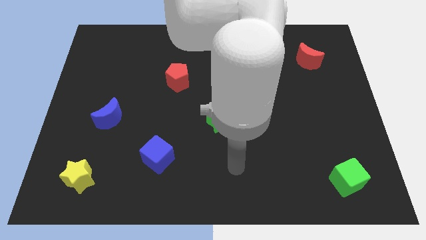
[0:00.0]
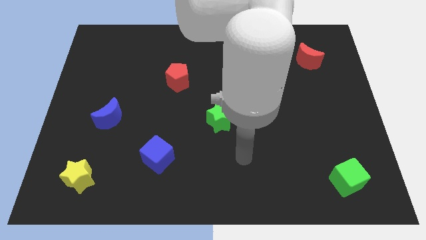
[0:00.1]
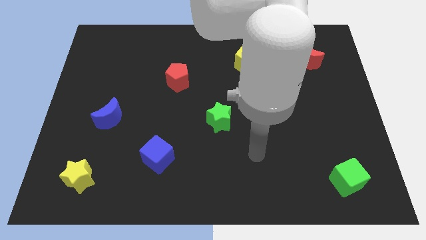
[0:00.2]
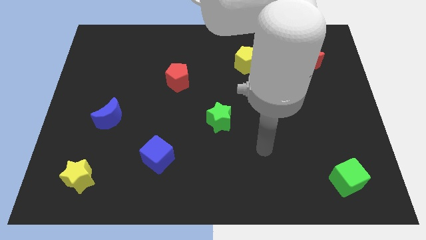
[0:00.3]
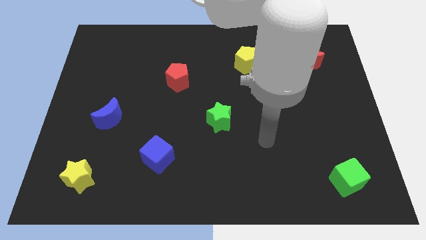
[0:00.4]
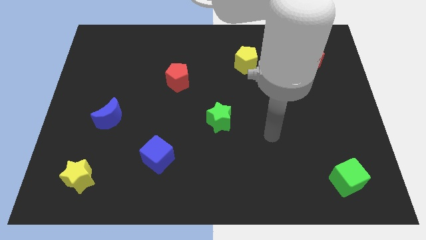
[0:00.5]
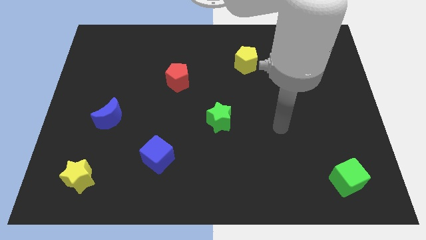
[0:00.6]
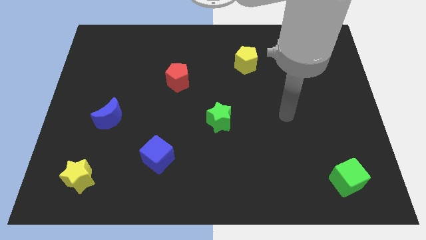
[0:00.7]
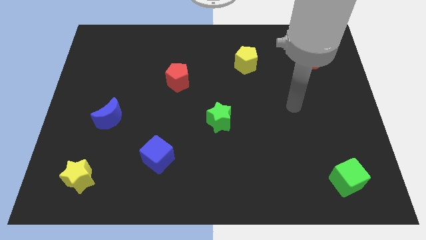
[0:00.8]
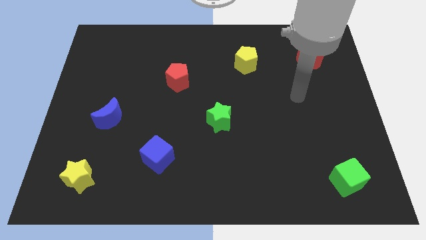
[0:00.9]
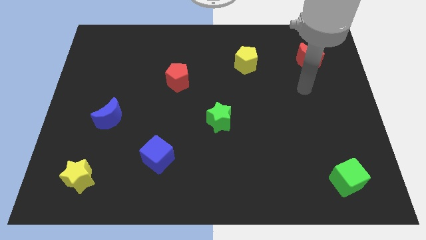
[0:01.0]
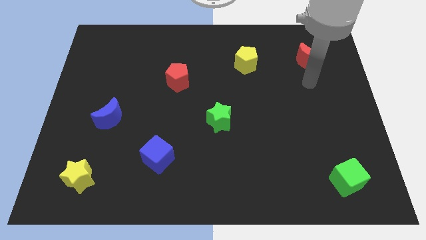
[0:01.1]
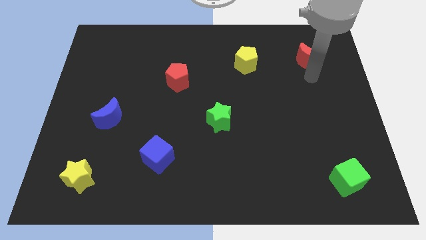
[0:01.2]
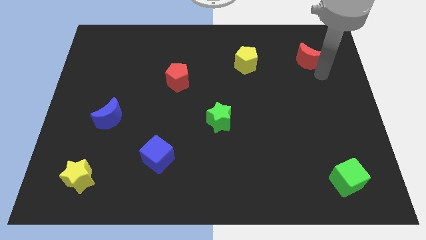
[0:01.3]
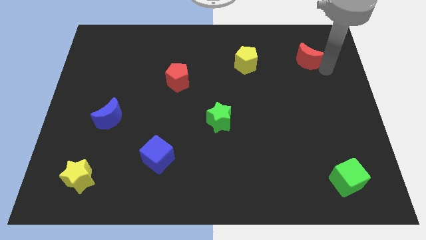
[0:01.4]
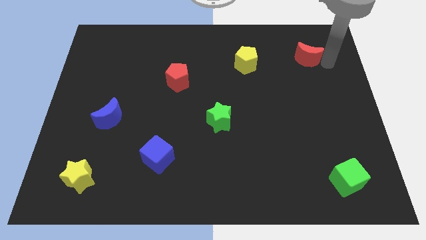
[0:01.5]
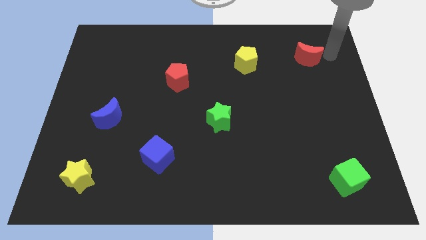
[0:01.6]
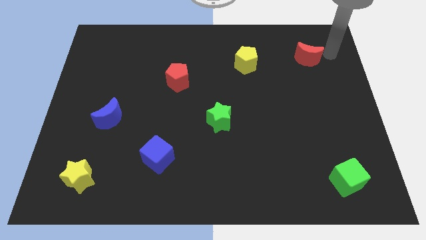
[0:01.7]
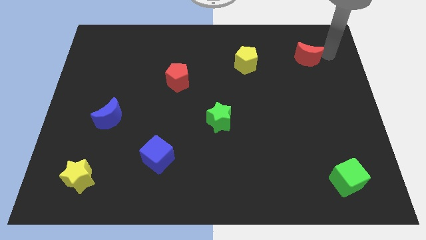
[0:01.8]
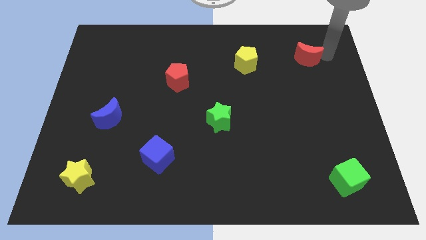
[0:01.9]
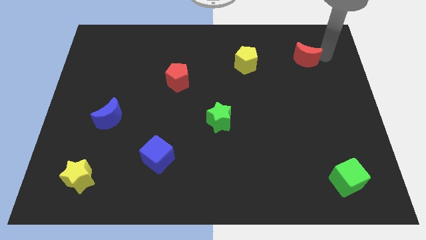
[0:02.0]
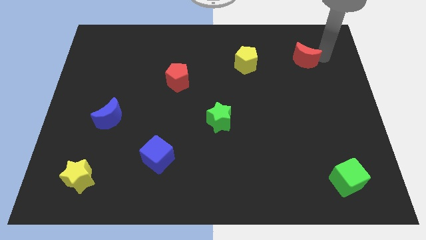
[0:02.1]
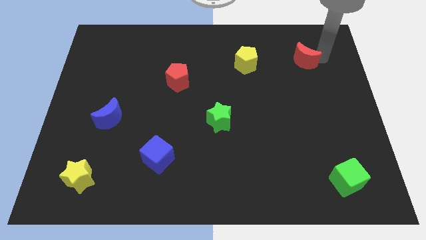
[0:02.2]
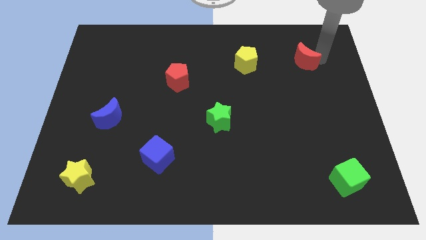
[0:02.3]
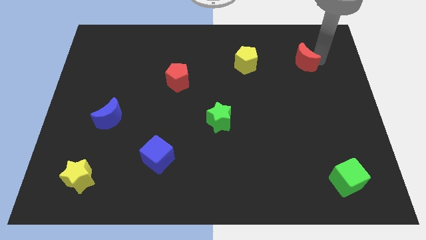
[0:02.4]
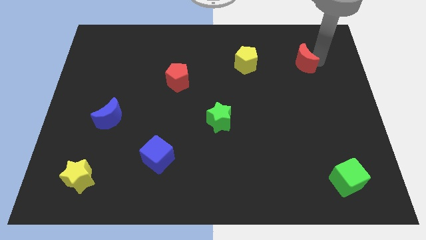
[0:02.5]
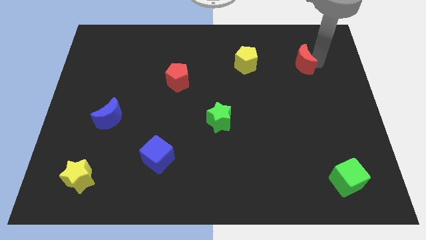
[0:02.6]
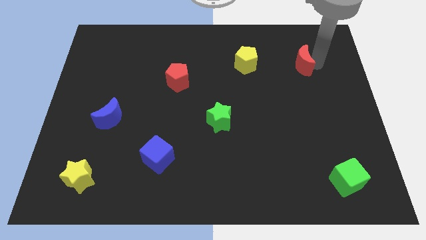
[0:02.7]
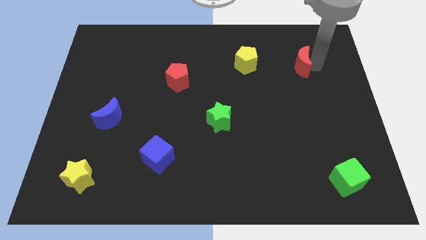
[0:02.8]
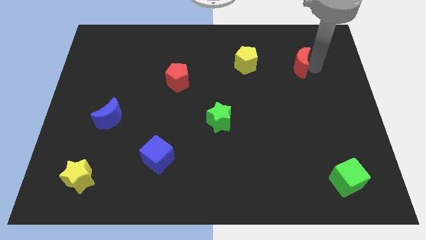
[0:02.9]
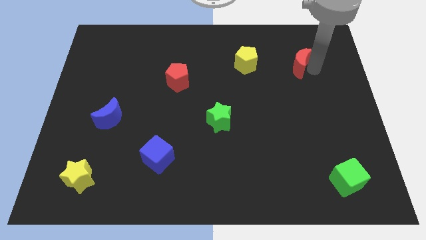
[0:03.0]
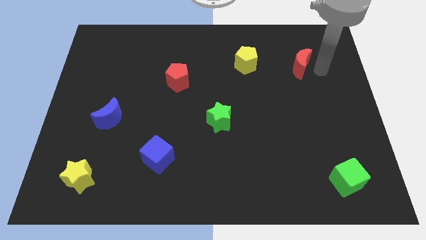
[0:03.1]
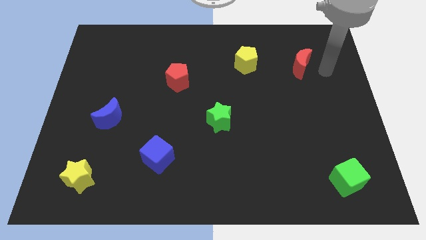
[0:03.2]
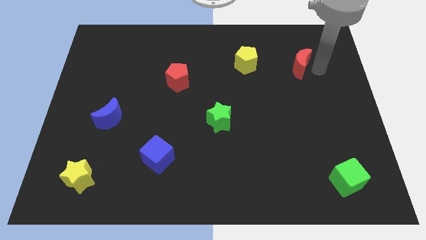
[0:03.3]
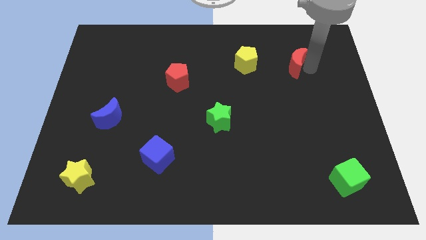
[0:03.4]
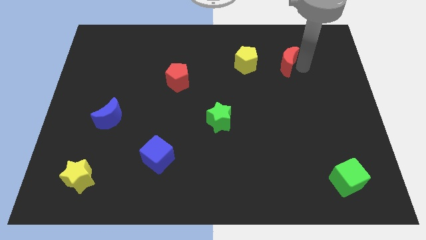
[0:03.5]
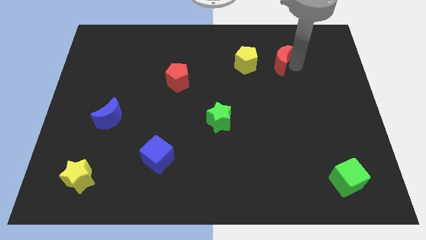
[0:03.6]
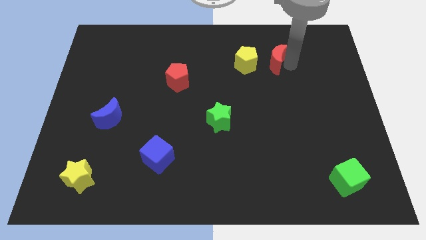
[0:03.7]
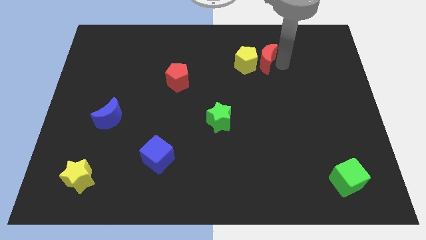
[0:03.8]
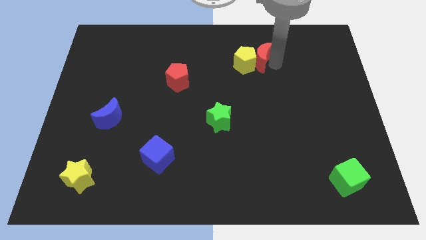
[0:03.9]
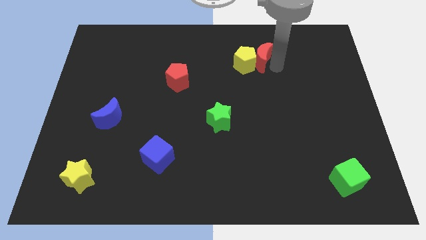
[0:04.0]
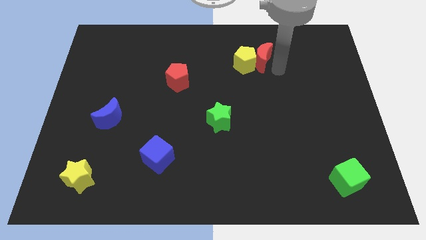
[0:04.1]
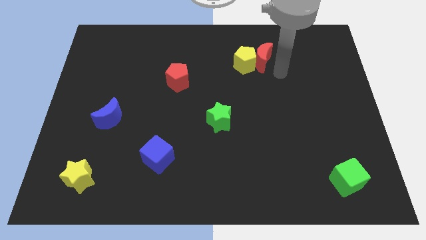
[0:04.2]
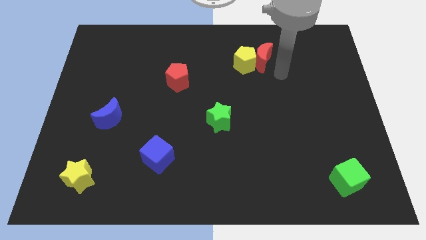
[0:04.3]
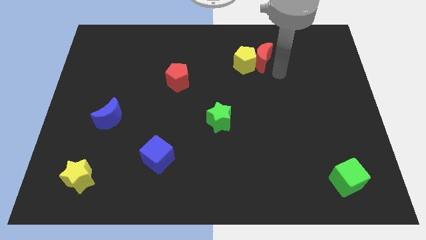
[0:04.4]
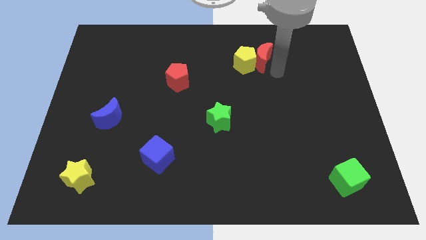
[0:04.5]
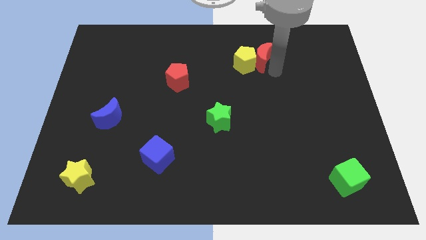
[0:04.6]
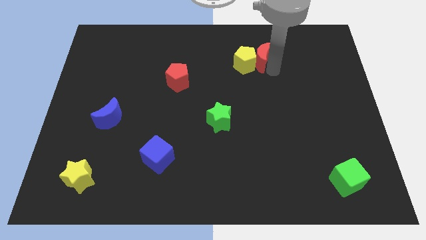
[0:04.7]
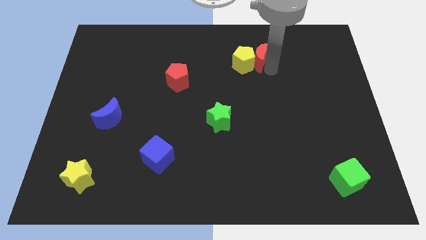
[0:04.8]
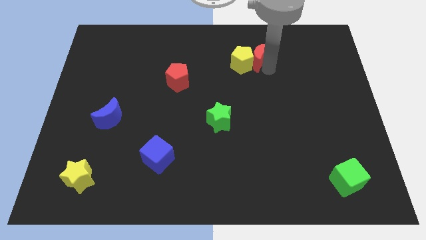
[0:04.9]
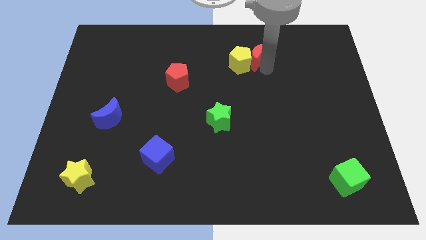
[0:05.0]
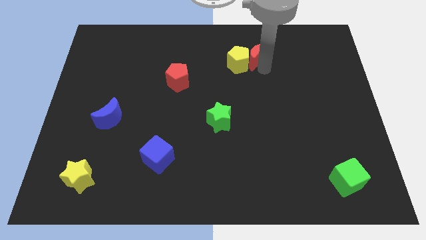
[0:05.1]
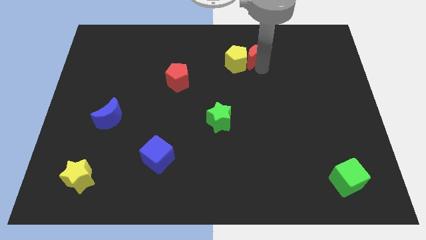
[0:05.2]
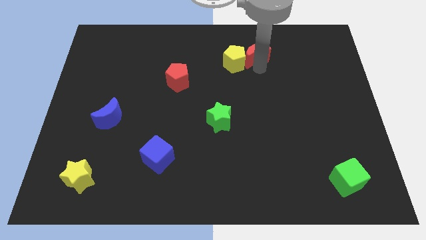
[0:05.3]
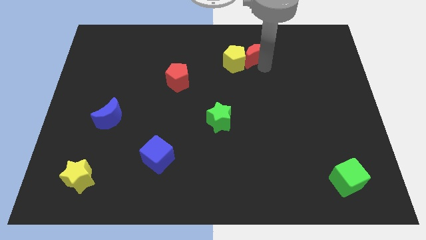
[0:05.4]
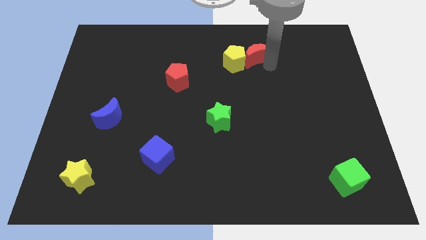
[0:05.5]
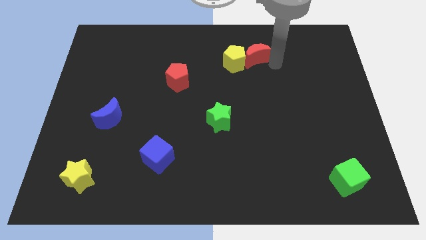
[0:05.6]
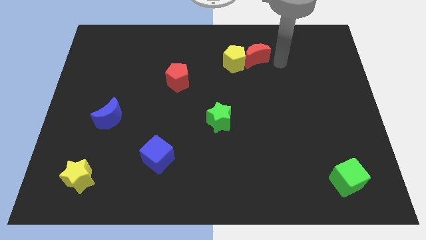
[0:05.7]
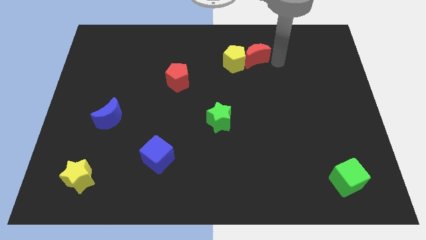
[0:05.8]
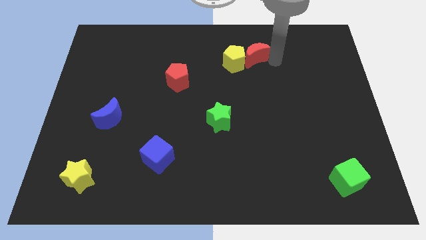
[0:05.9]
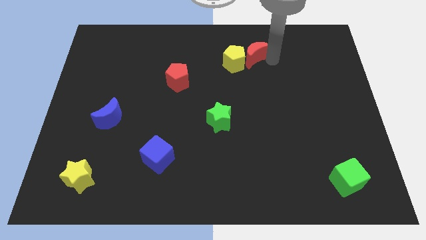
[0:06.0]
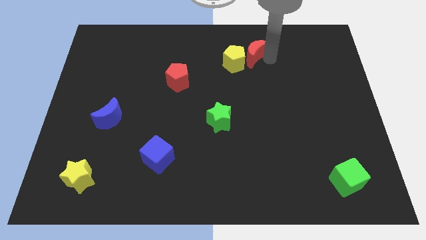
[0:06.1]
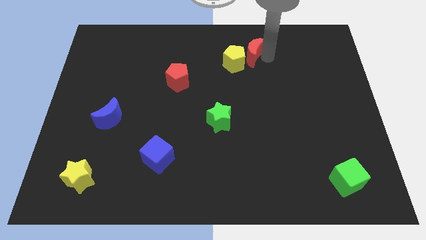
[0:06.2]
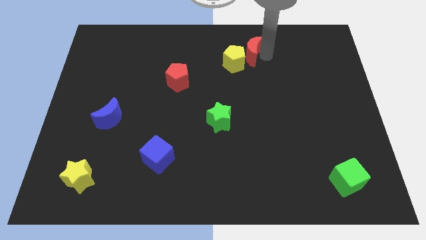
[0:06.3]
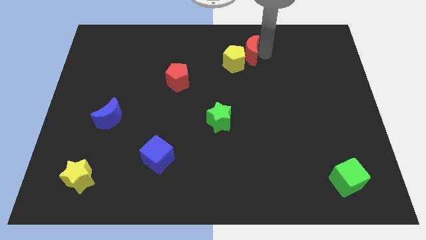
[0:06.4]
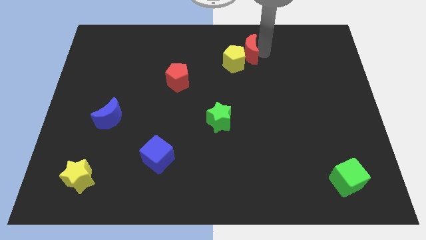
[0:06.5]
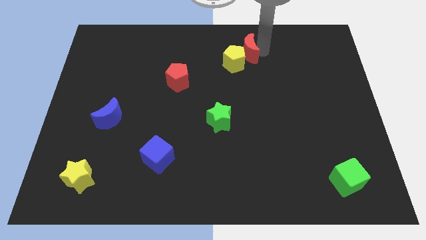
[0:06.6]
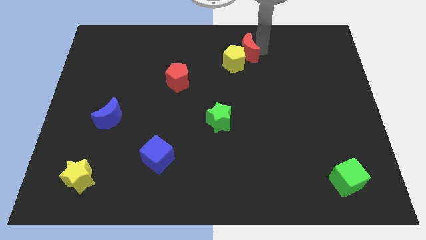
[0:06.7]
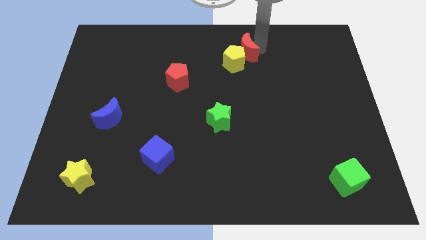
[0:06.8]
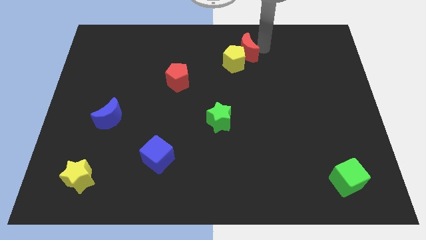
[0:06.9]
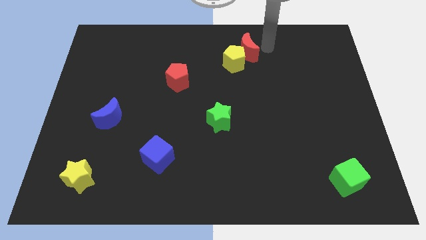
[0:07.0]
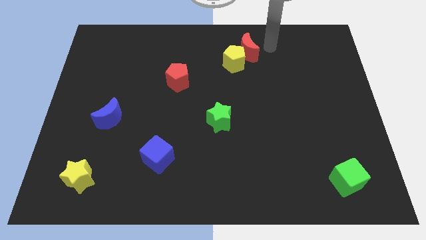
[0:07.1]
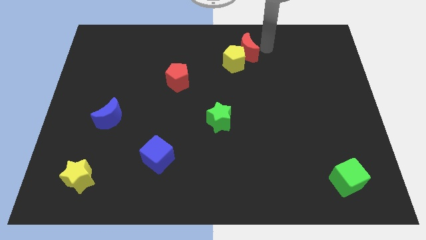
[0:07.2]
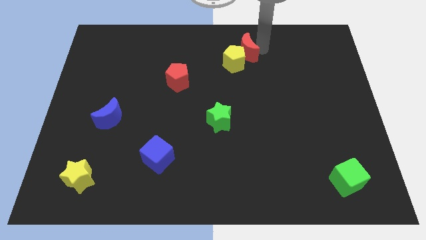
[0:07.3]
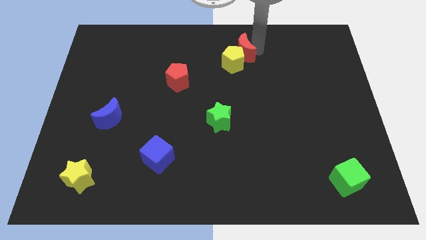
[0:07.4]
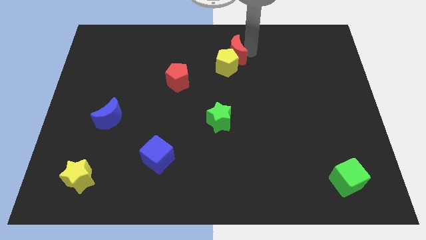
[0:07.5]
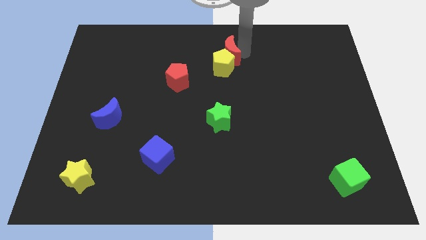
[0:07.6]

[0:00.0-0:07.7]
slide the red moon left

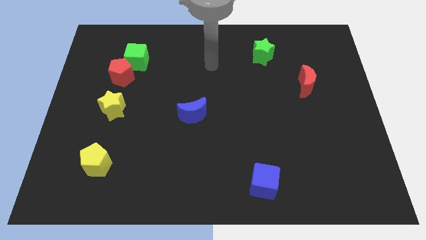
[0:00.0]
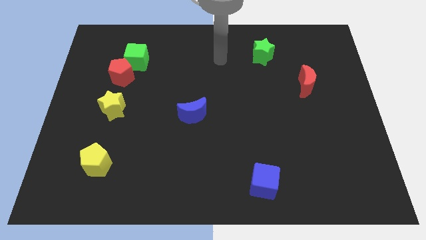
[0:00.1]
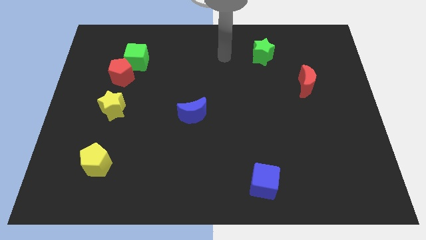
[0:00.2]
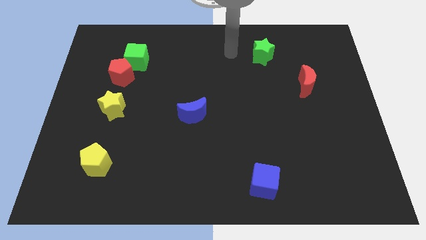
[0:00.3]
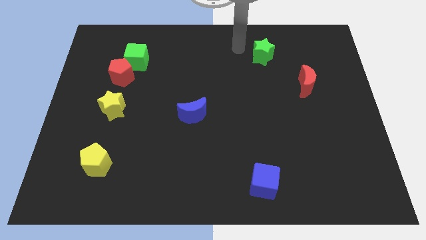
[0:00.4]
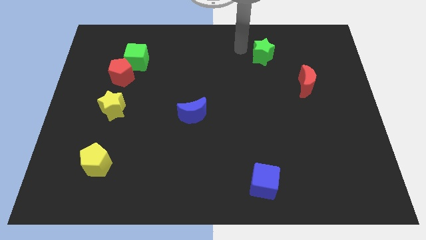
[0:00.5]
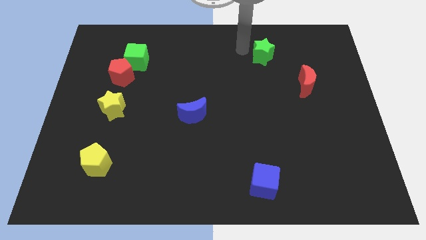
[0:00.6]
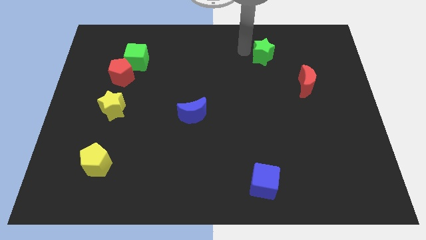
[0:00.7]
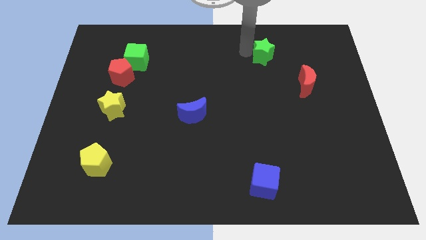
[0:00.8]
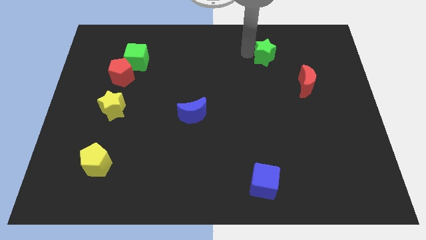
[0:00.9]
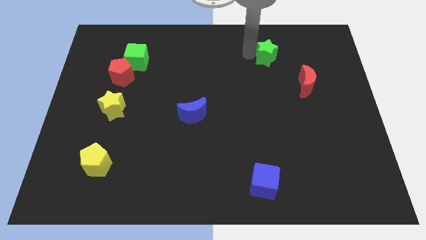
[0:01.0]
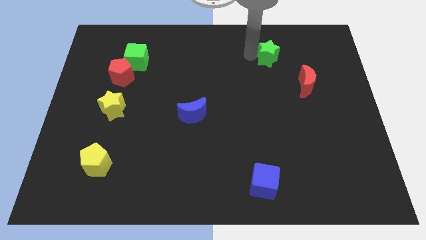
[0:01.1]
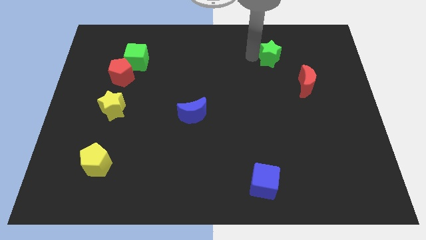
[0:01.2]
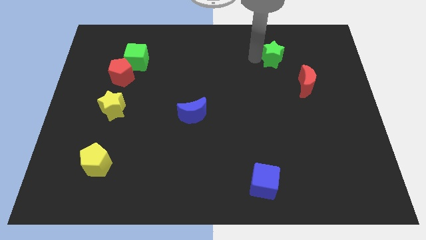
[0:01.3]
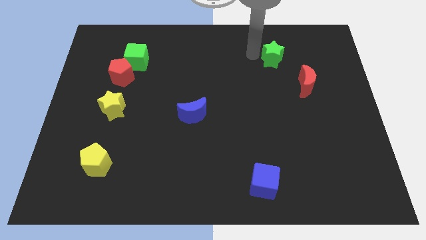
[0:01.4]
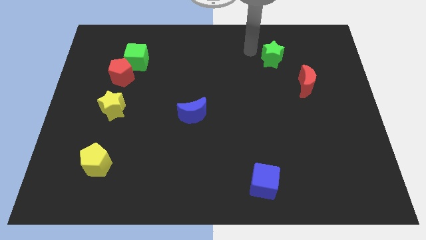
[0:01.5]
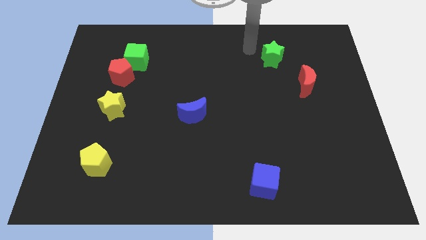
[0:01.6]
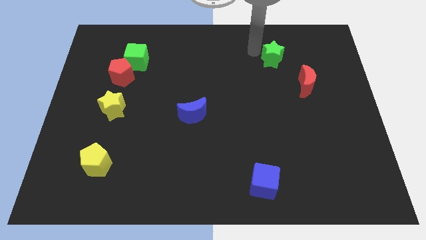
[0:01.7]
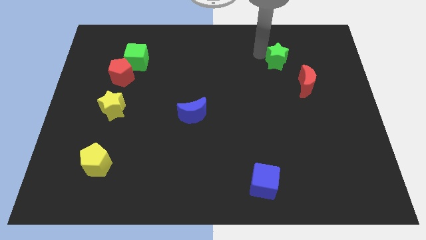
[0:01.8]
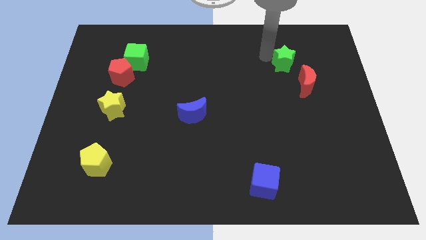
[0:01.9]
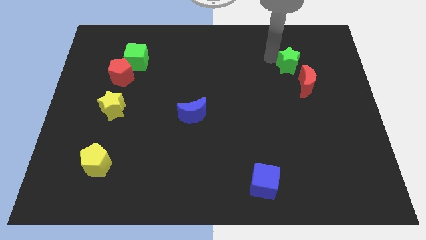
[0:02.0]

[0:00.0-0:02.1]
push the green star down and to the right diagonally a bit
